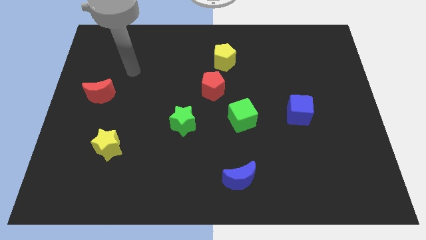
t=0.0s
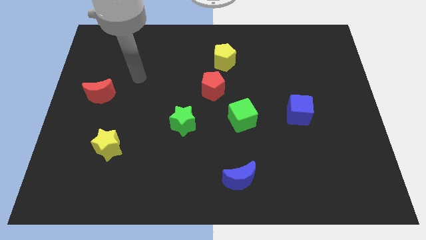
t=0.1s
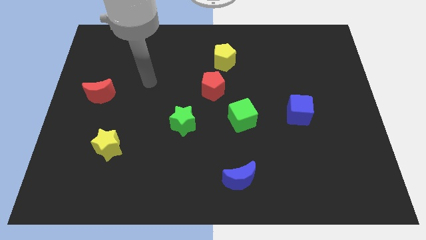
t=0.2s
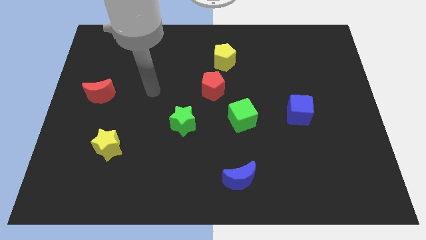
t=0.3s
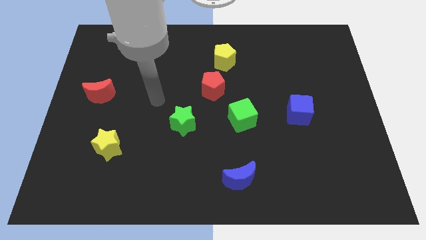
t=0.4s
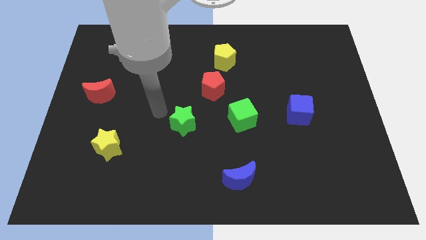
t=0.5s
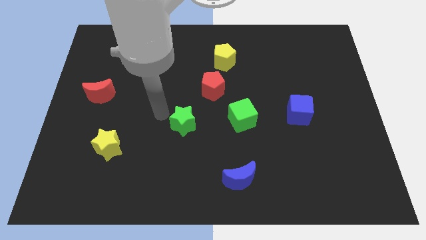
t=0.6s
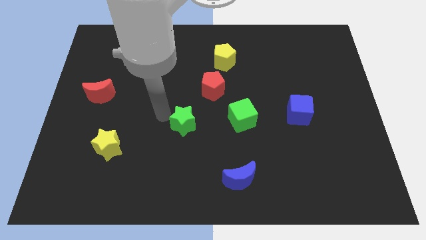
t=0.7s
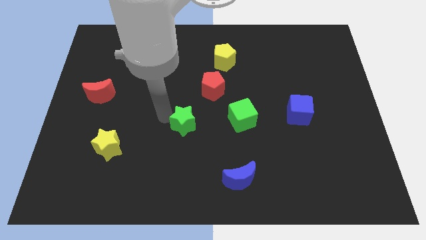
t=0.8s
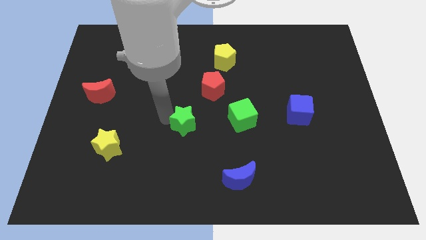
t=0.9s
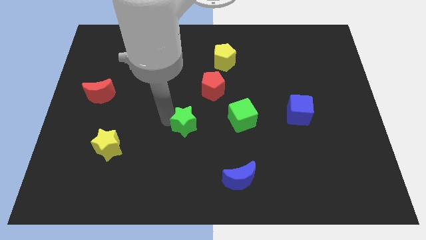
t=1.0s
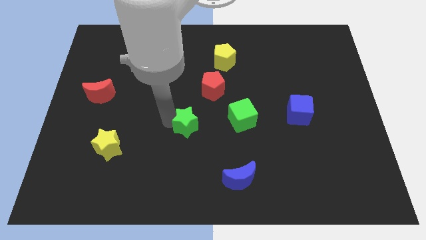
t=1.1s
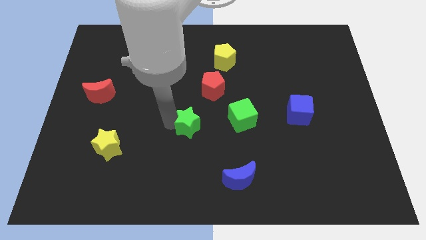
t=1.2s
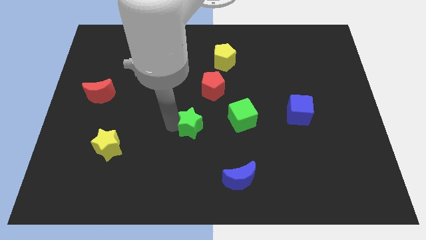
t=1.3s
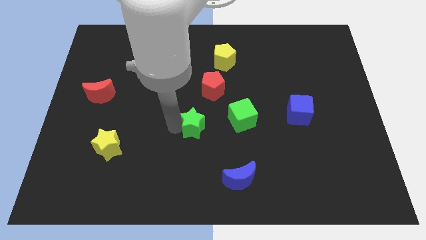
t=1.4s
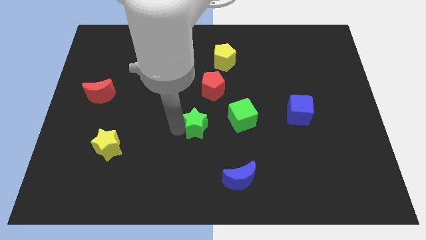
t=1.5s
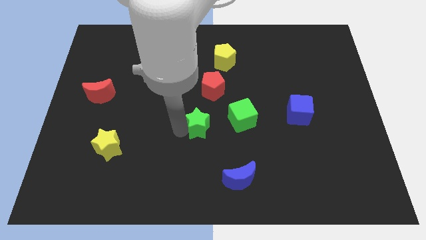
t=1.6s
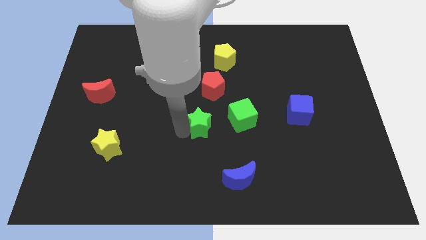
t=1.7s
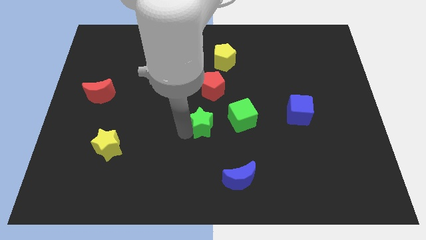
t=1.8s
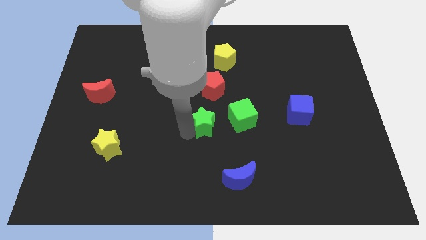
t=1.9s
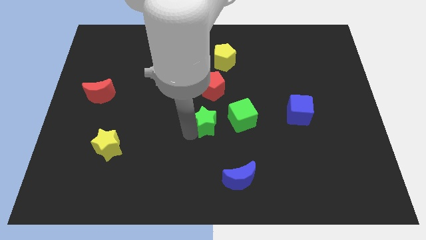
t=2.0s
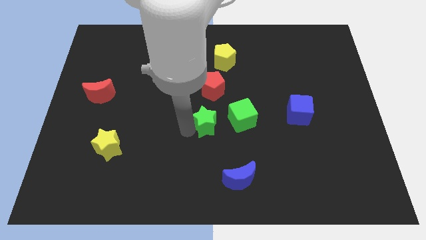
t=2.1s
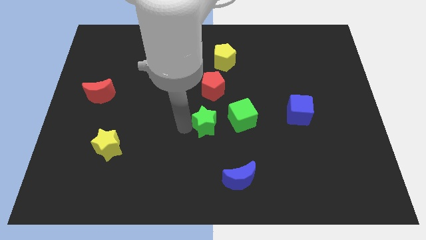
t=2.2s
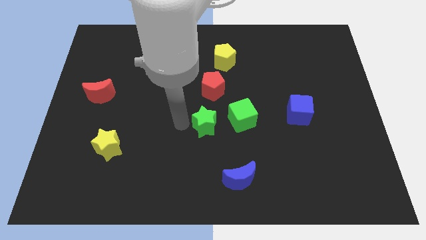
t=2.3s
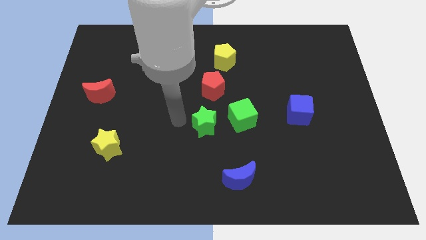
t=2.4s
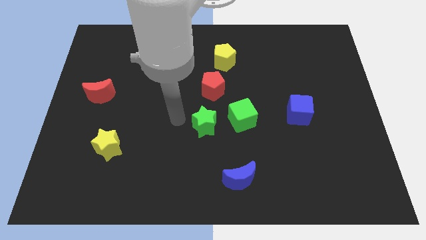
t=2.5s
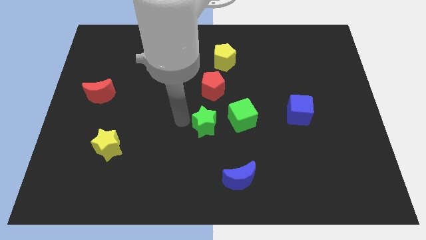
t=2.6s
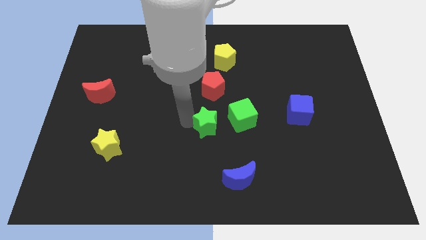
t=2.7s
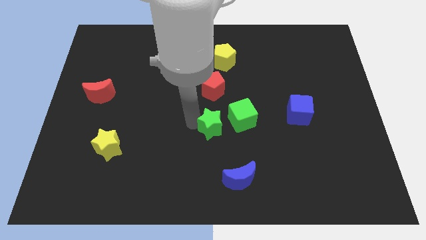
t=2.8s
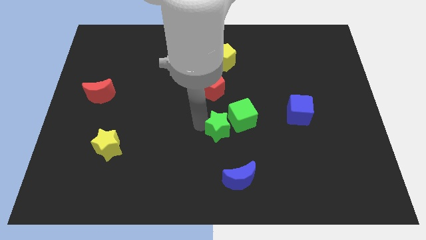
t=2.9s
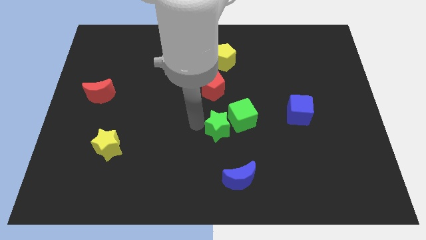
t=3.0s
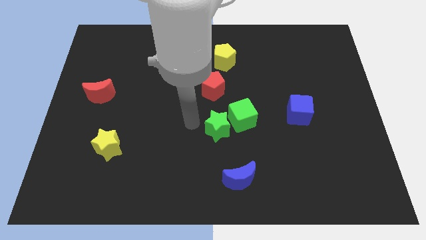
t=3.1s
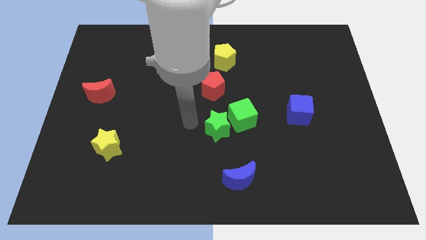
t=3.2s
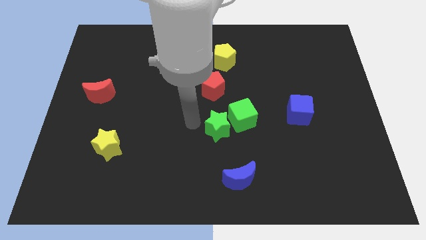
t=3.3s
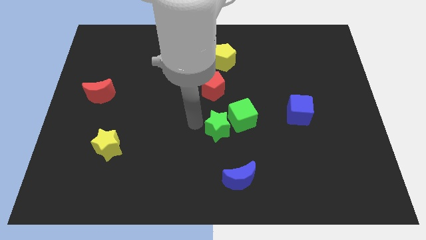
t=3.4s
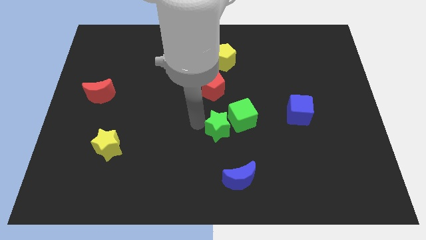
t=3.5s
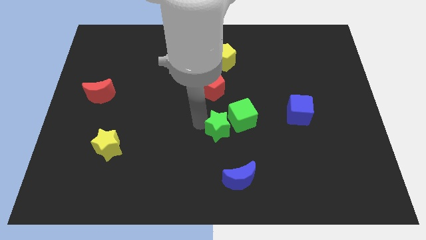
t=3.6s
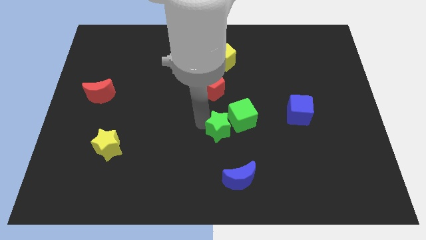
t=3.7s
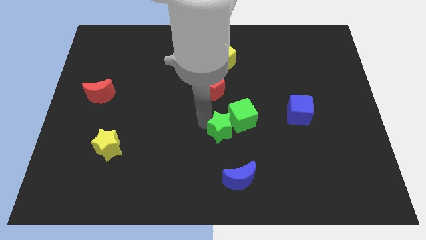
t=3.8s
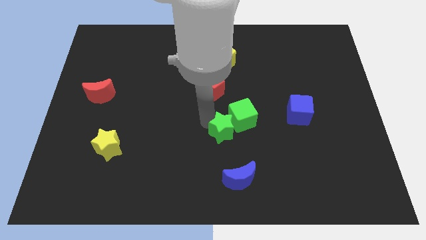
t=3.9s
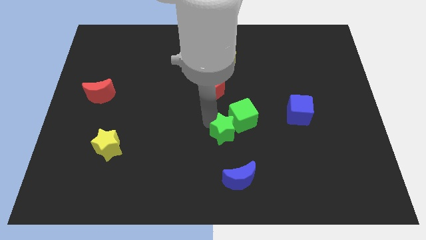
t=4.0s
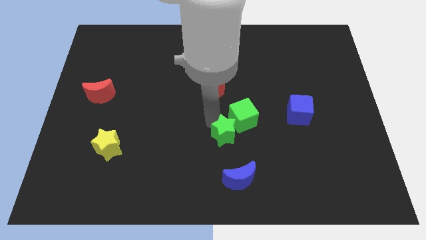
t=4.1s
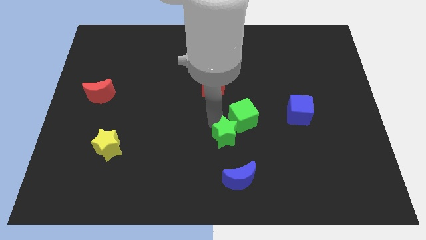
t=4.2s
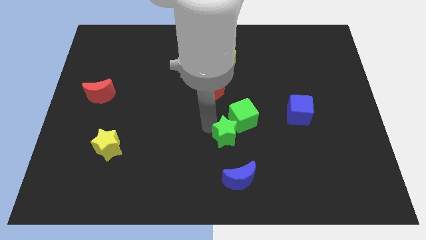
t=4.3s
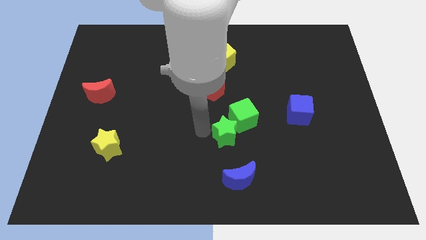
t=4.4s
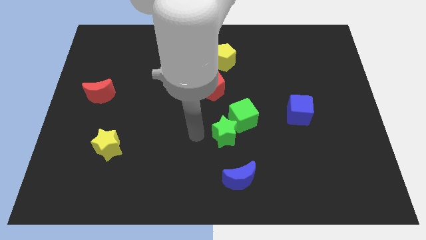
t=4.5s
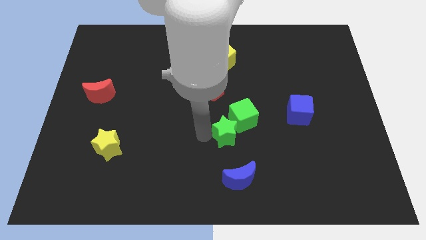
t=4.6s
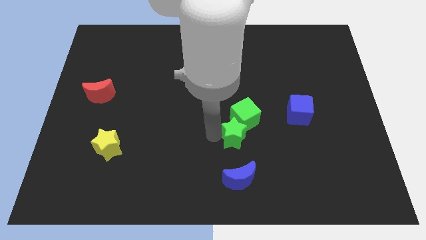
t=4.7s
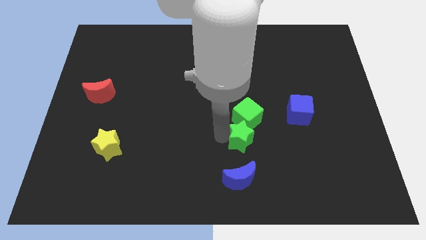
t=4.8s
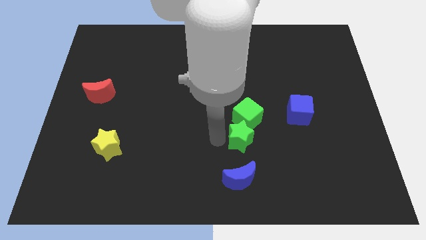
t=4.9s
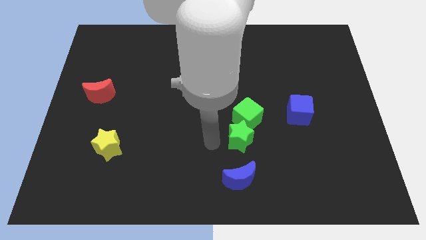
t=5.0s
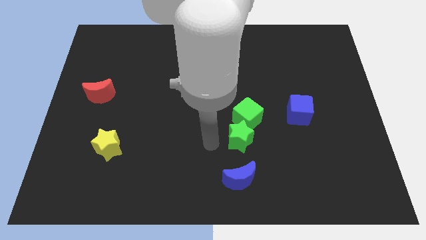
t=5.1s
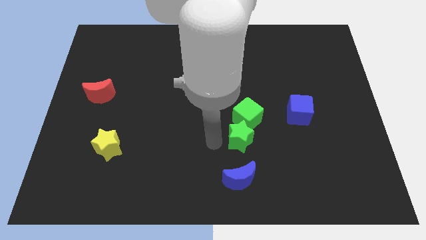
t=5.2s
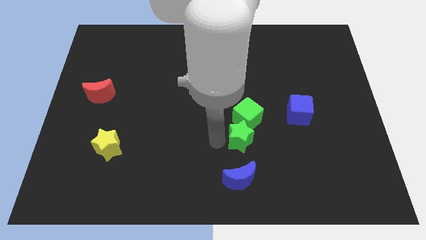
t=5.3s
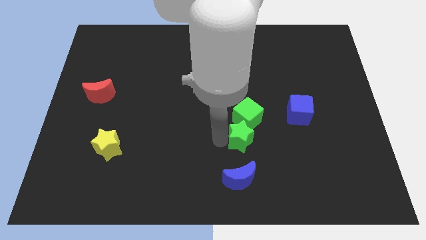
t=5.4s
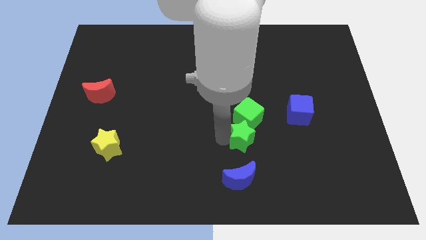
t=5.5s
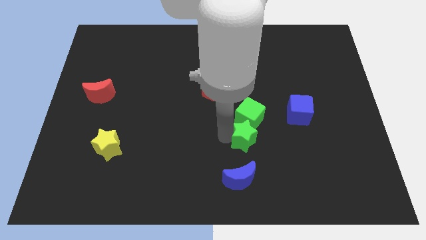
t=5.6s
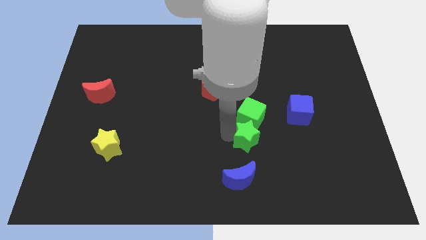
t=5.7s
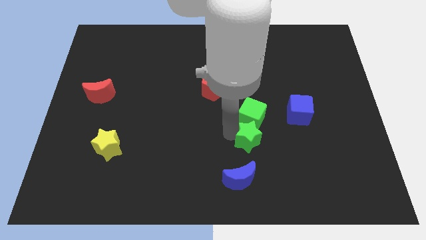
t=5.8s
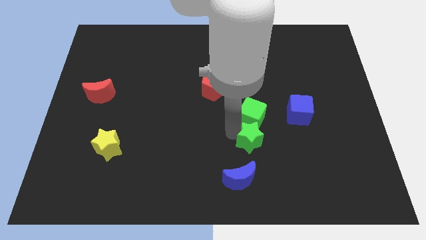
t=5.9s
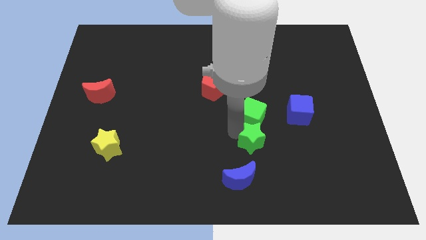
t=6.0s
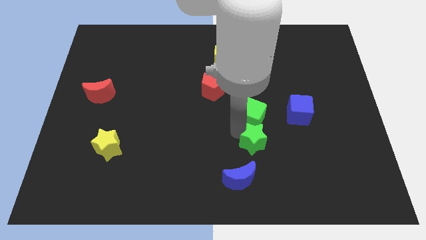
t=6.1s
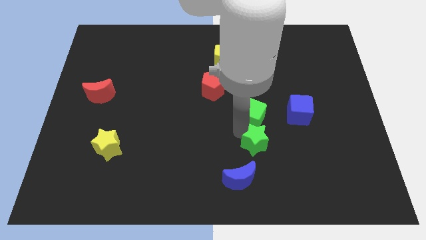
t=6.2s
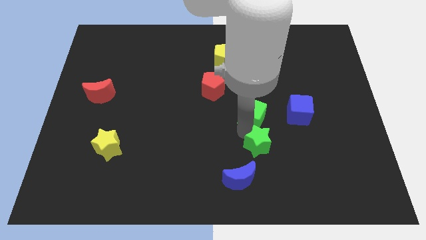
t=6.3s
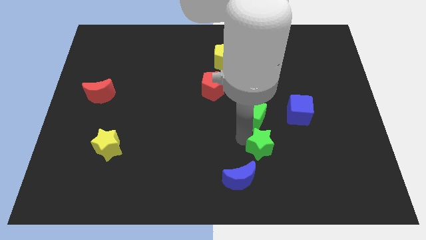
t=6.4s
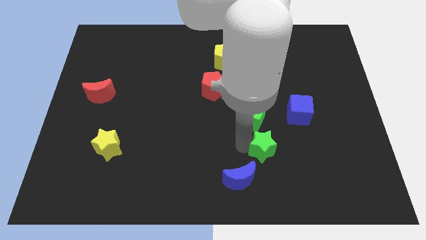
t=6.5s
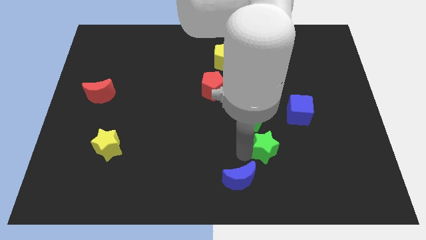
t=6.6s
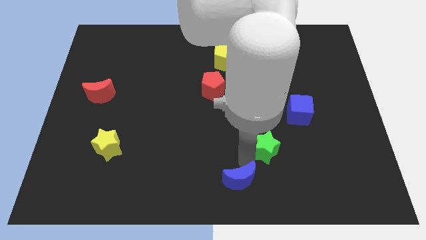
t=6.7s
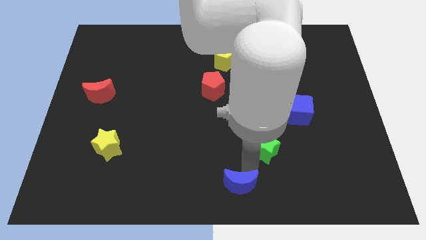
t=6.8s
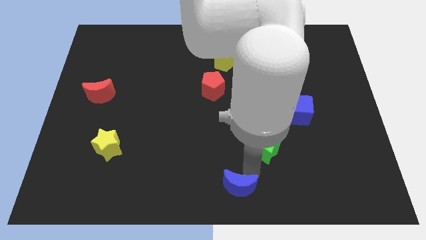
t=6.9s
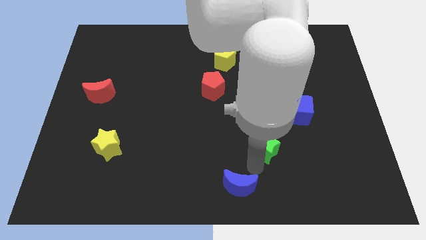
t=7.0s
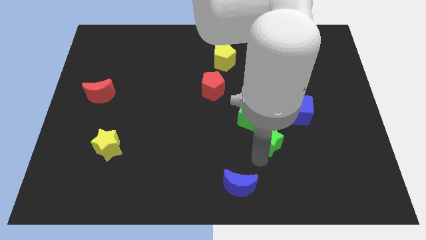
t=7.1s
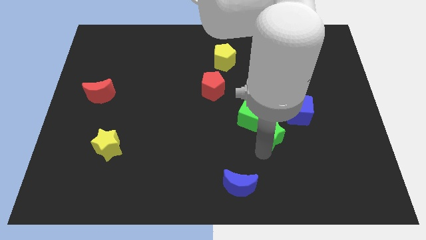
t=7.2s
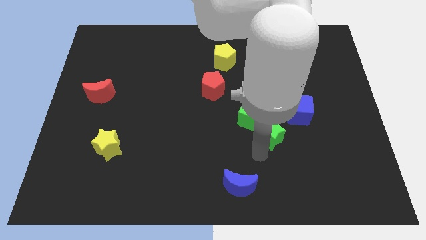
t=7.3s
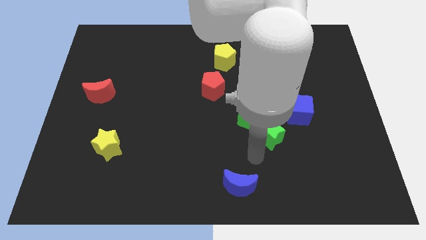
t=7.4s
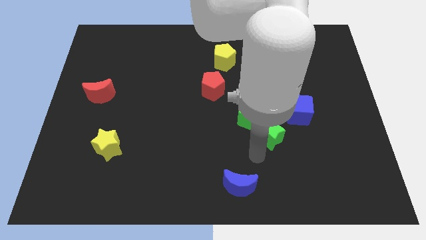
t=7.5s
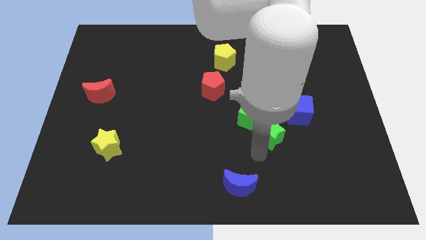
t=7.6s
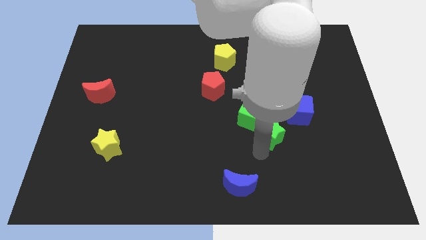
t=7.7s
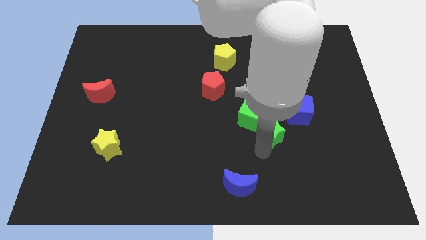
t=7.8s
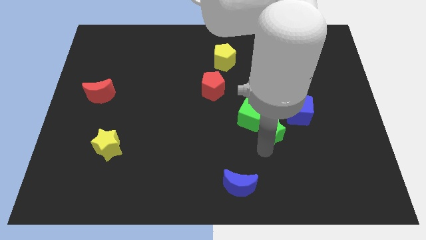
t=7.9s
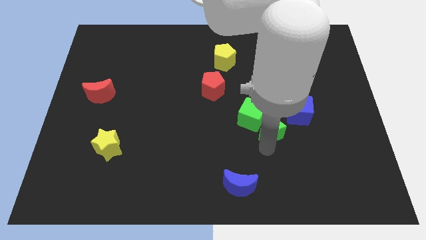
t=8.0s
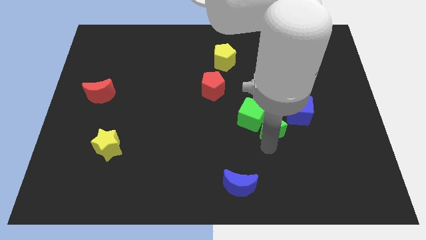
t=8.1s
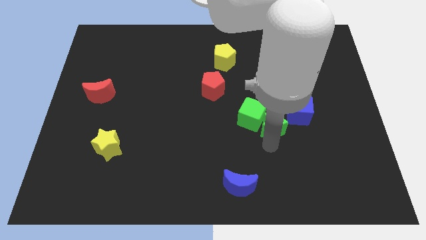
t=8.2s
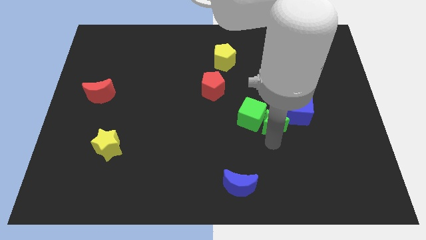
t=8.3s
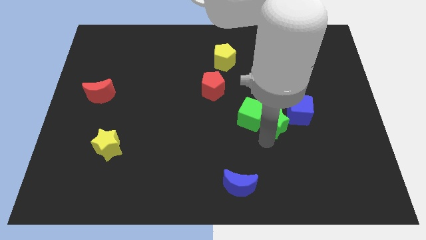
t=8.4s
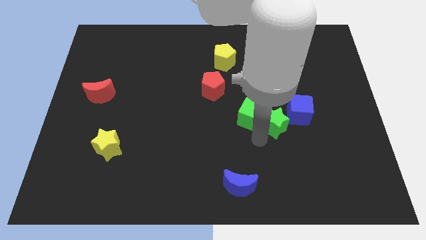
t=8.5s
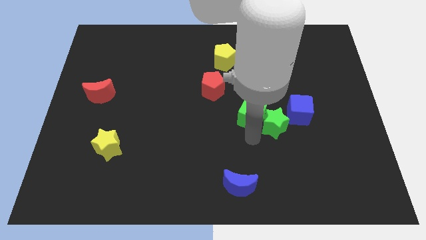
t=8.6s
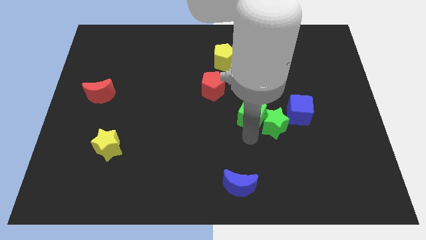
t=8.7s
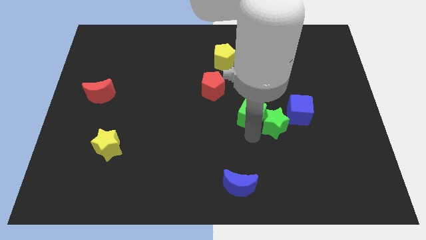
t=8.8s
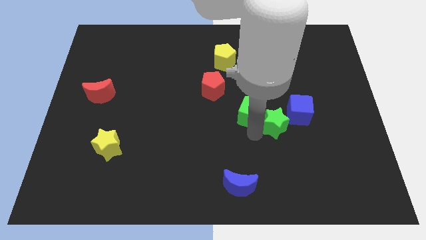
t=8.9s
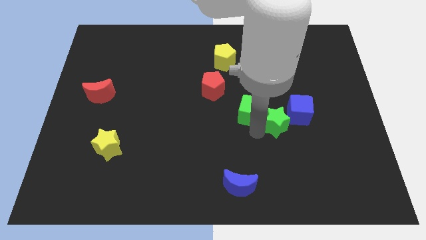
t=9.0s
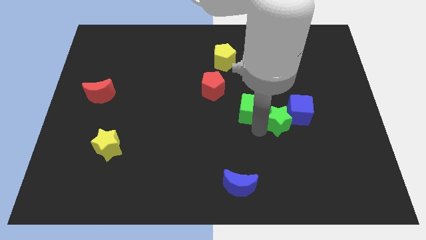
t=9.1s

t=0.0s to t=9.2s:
move the green star towards the blue cube
